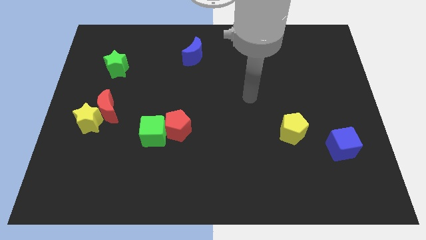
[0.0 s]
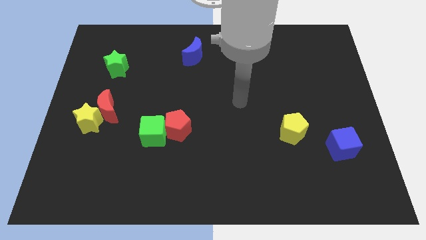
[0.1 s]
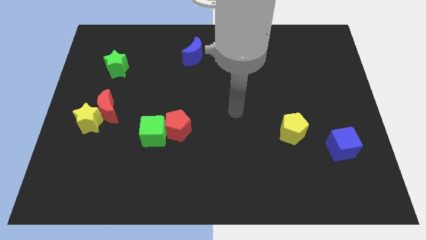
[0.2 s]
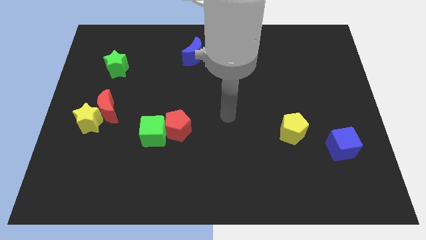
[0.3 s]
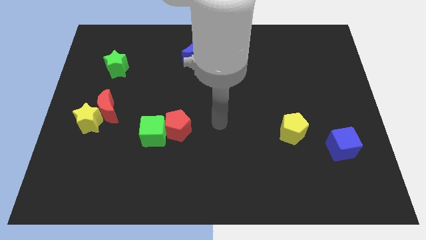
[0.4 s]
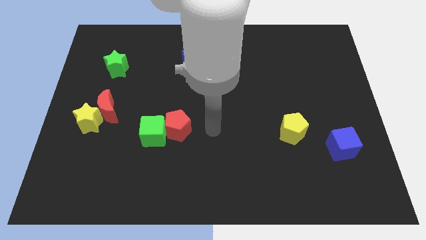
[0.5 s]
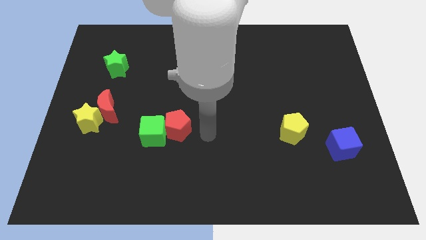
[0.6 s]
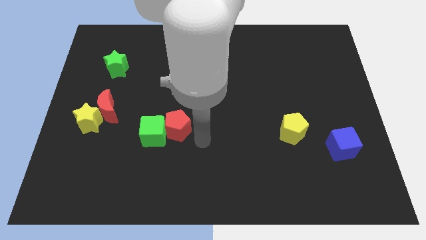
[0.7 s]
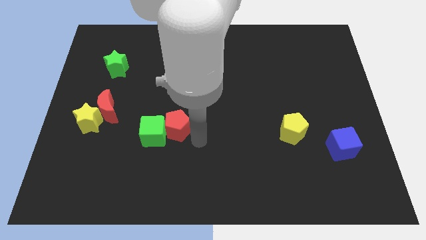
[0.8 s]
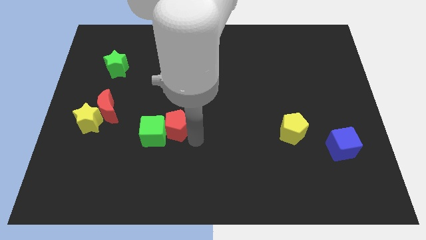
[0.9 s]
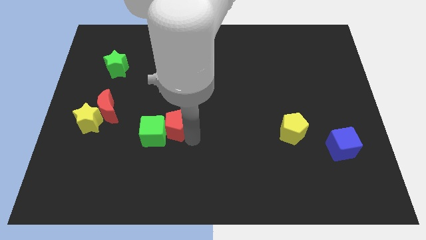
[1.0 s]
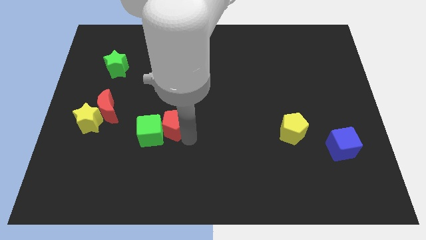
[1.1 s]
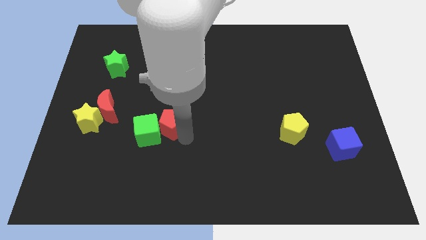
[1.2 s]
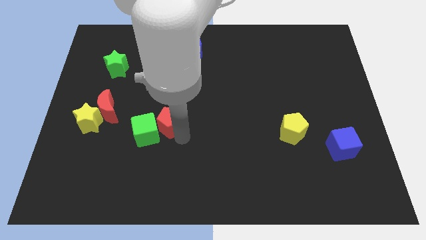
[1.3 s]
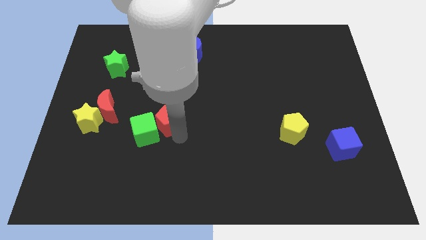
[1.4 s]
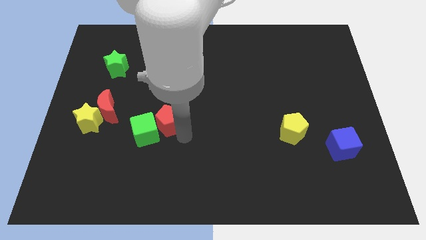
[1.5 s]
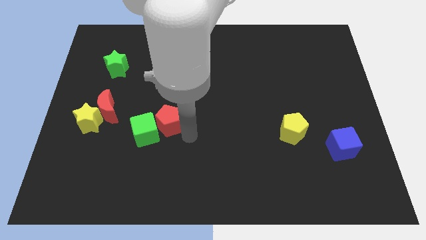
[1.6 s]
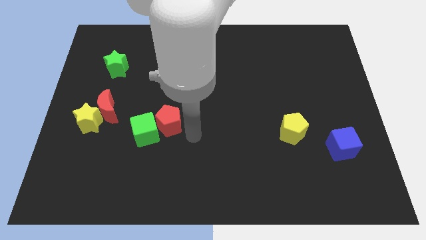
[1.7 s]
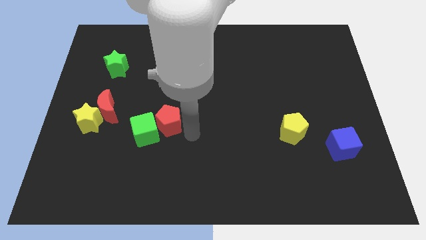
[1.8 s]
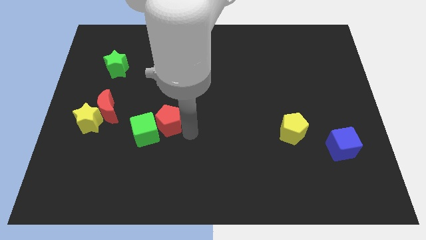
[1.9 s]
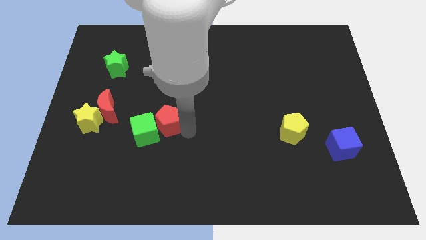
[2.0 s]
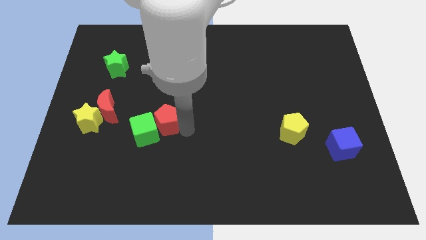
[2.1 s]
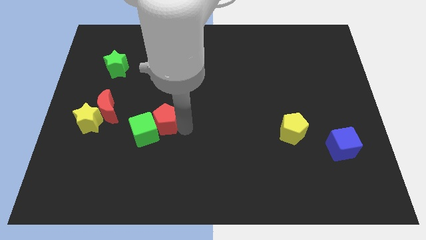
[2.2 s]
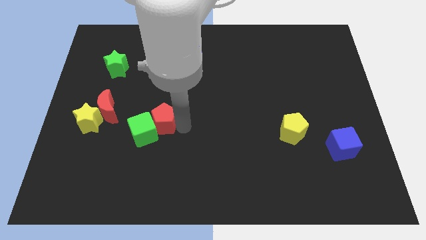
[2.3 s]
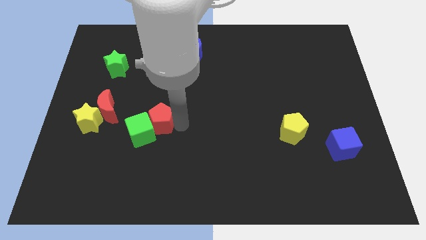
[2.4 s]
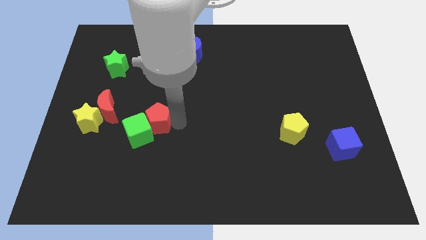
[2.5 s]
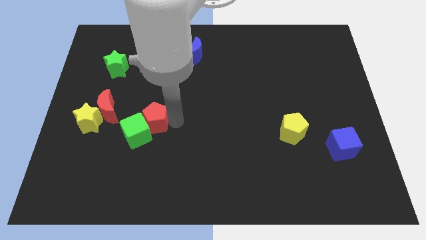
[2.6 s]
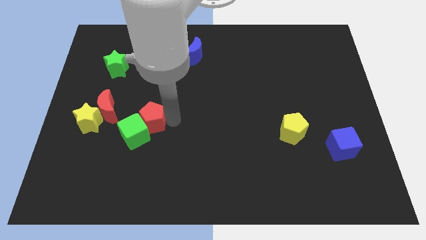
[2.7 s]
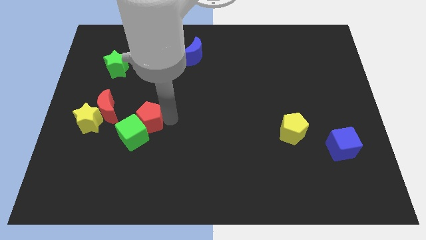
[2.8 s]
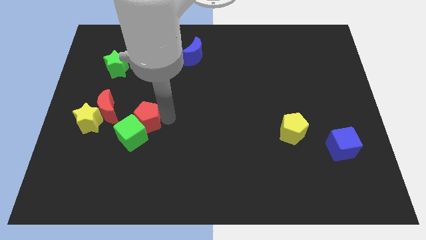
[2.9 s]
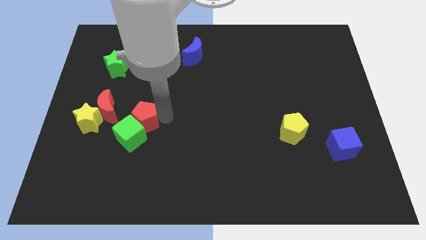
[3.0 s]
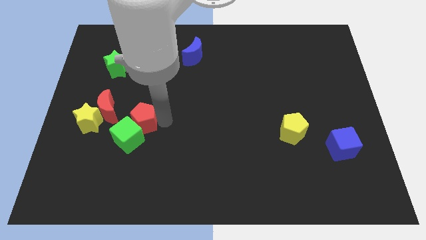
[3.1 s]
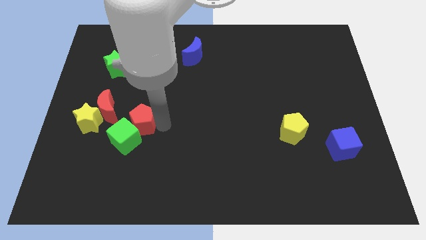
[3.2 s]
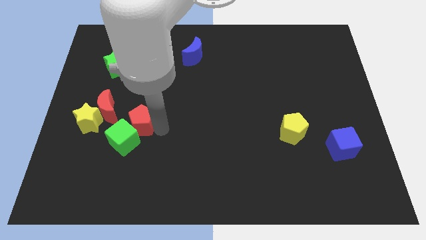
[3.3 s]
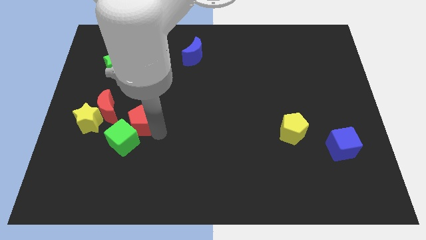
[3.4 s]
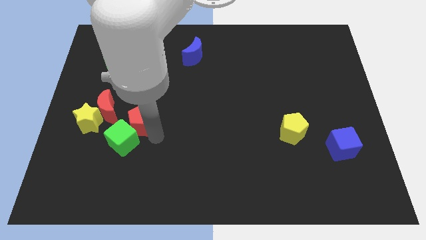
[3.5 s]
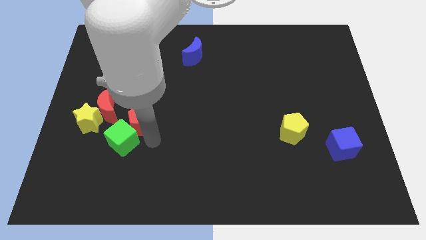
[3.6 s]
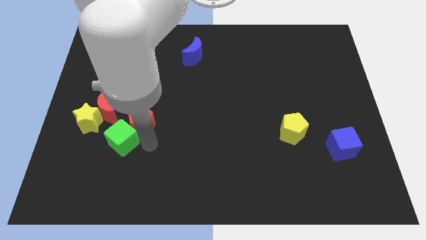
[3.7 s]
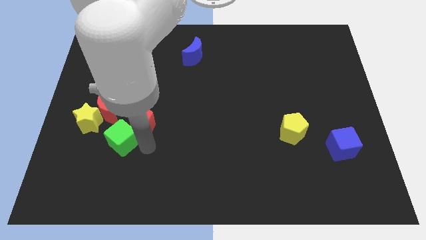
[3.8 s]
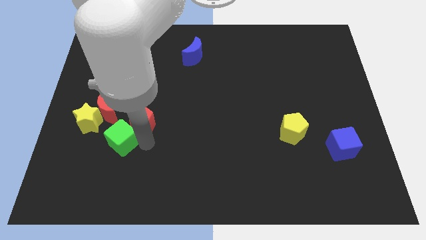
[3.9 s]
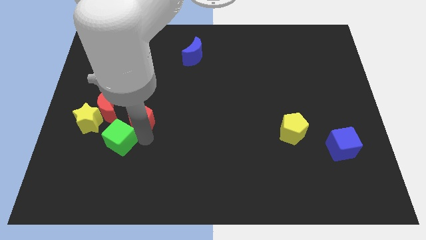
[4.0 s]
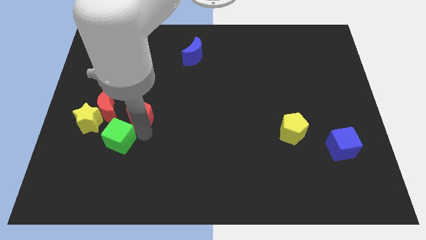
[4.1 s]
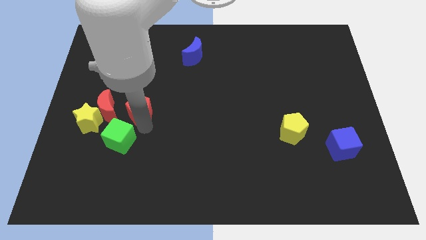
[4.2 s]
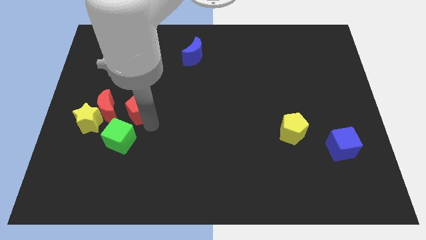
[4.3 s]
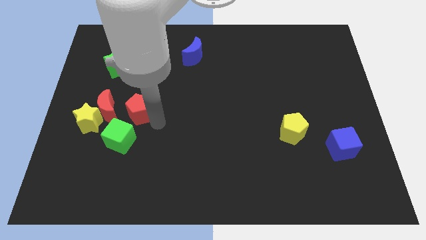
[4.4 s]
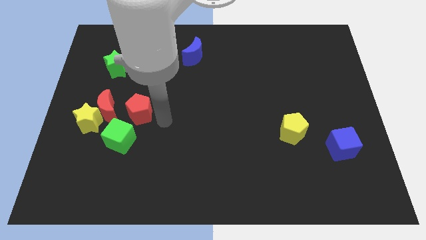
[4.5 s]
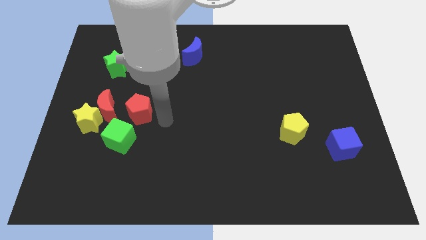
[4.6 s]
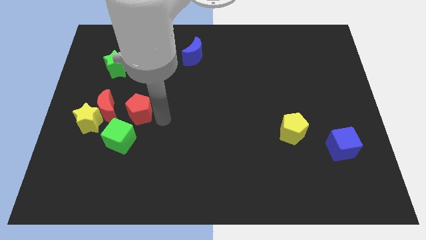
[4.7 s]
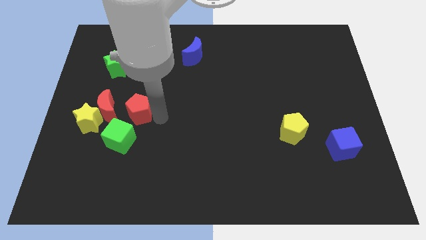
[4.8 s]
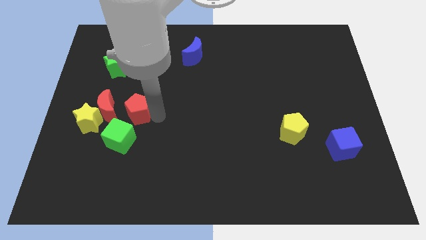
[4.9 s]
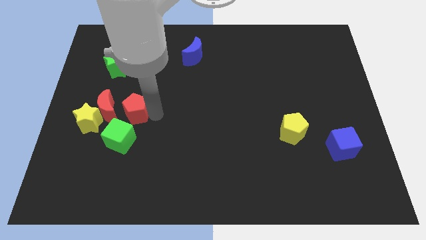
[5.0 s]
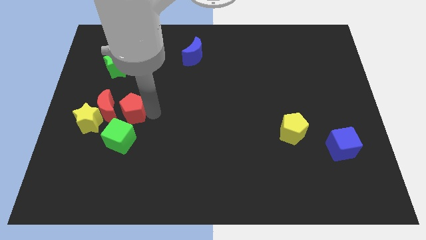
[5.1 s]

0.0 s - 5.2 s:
move the red pentagon to the top right side of the yellow star

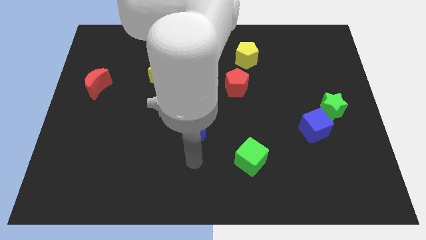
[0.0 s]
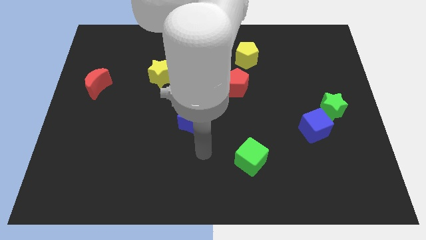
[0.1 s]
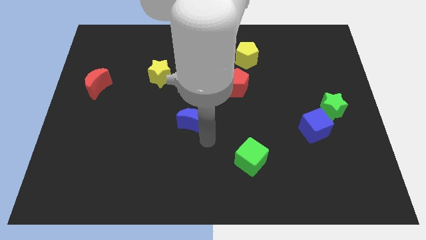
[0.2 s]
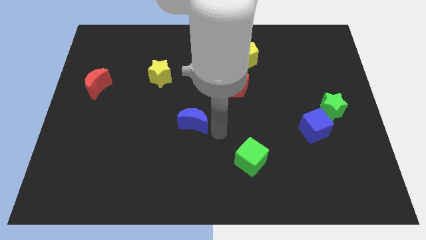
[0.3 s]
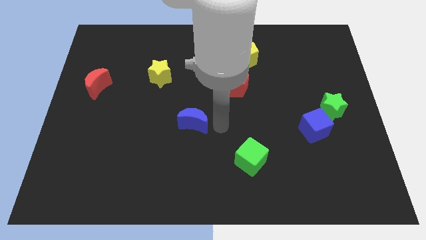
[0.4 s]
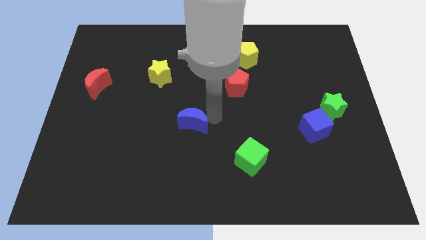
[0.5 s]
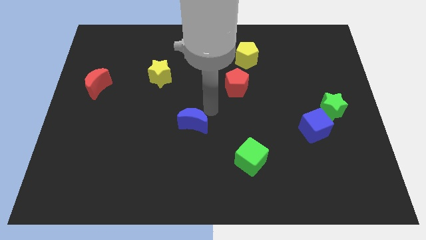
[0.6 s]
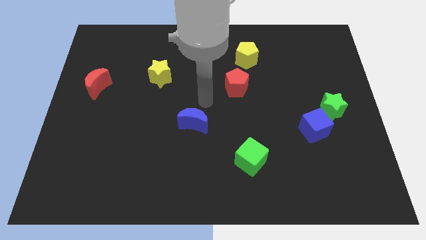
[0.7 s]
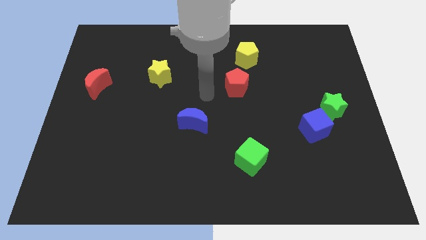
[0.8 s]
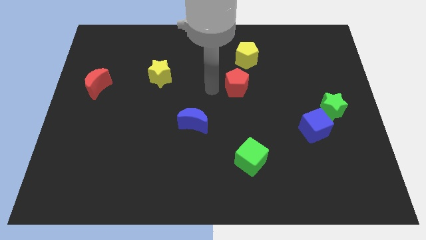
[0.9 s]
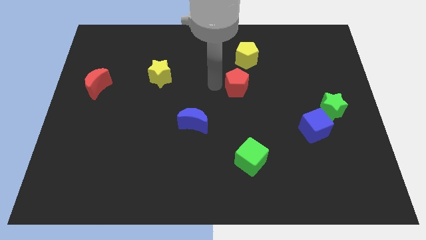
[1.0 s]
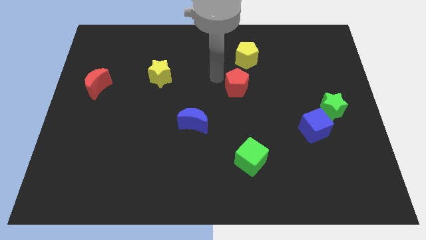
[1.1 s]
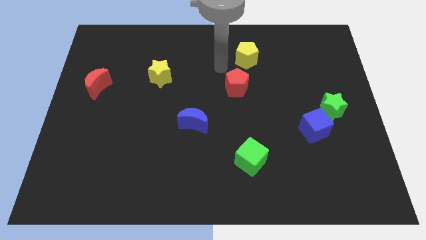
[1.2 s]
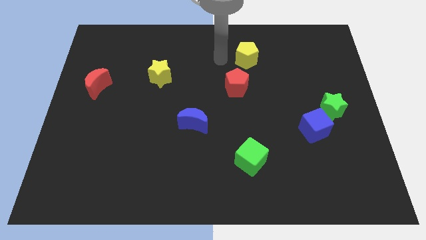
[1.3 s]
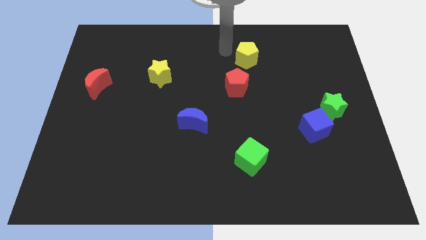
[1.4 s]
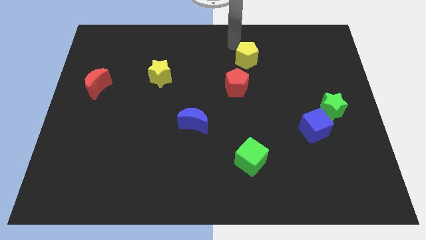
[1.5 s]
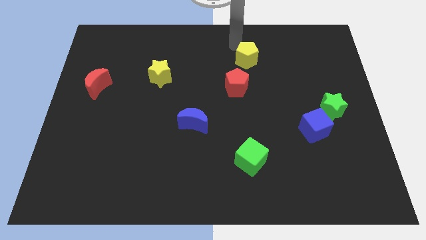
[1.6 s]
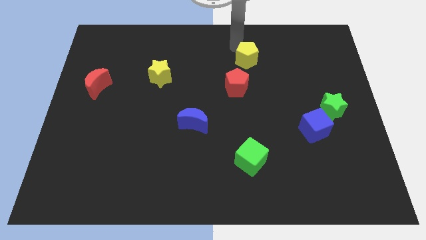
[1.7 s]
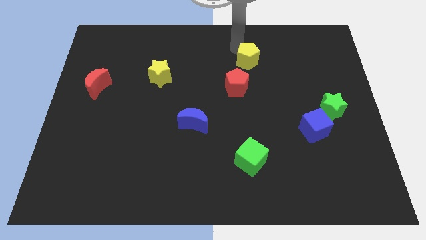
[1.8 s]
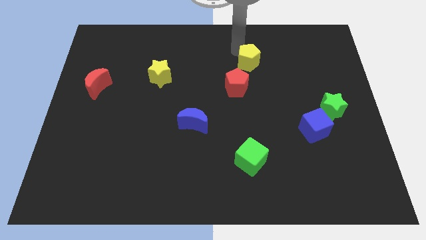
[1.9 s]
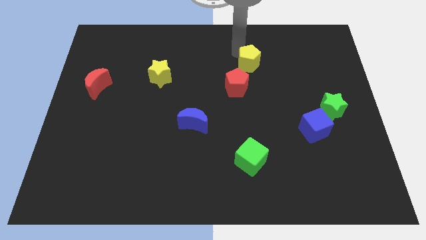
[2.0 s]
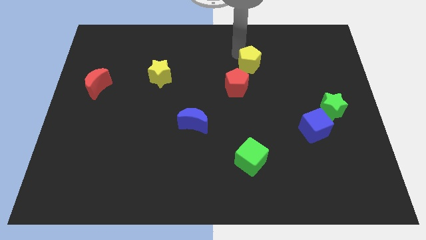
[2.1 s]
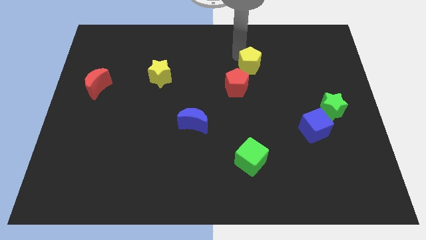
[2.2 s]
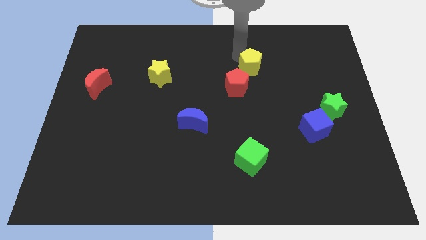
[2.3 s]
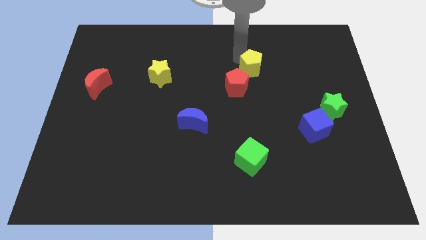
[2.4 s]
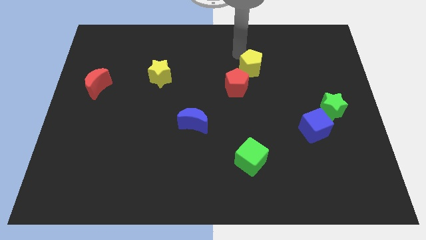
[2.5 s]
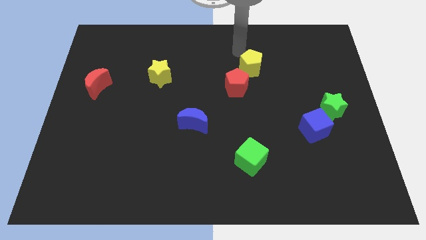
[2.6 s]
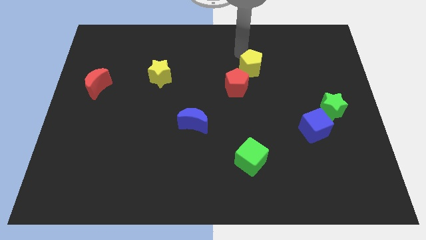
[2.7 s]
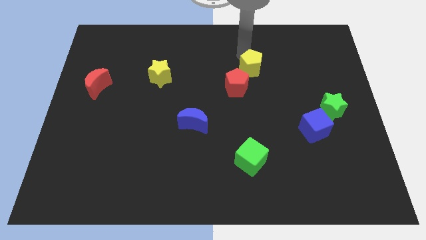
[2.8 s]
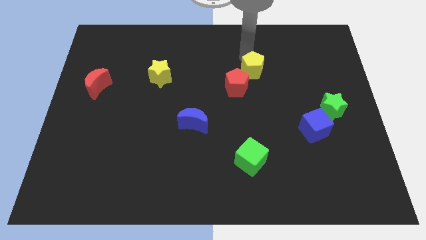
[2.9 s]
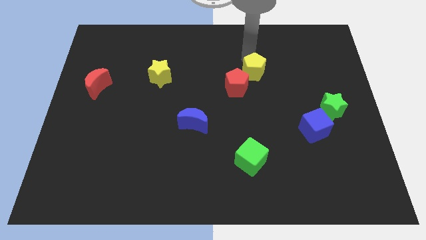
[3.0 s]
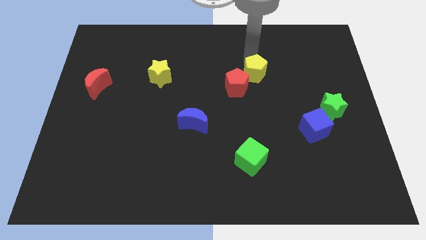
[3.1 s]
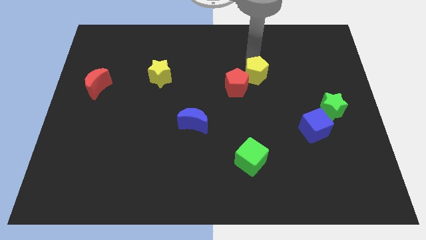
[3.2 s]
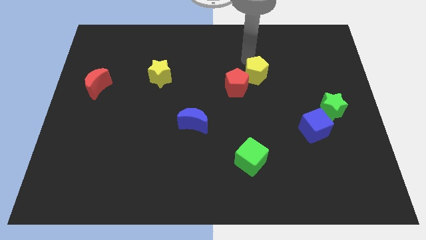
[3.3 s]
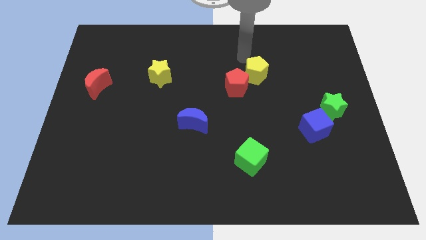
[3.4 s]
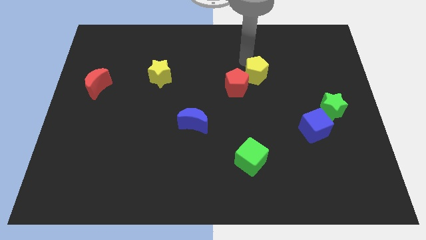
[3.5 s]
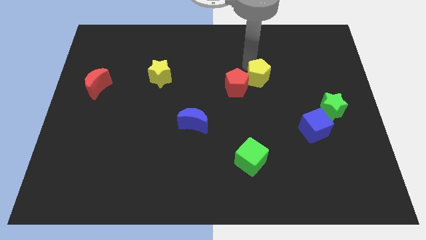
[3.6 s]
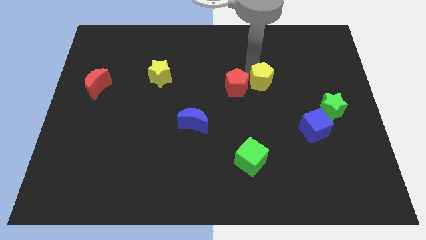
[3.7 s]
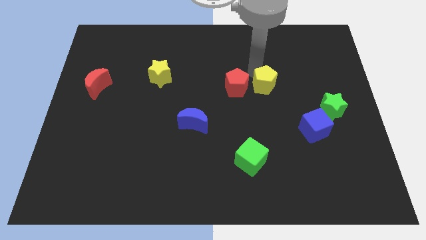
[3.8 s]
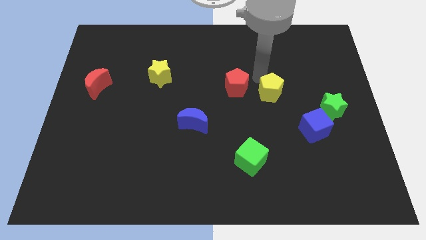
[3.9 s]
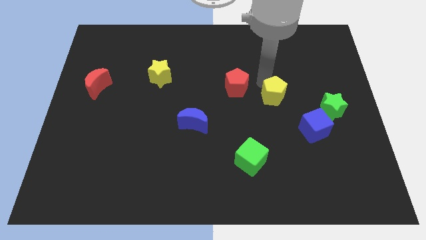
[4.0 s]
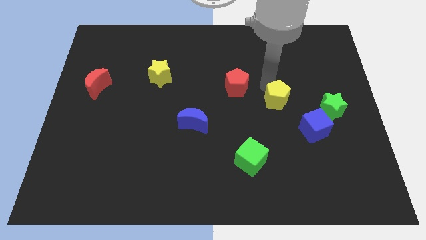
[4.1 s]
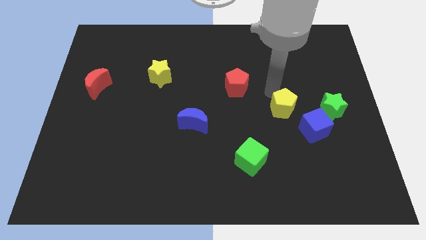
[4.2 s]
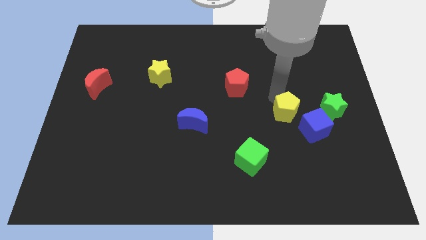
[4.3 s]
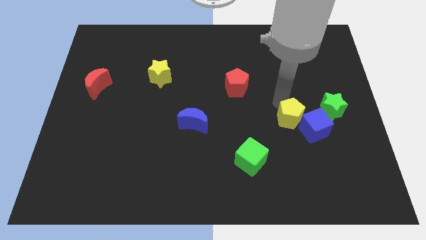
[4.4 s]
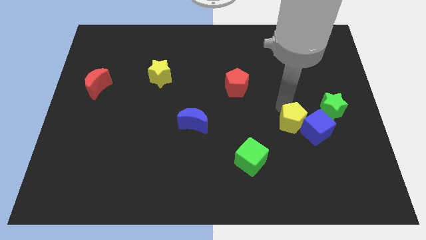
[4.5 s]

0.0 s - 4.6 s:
push the yellow pentagon to the bottom left side of the green star
